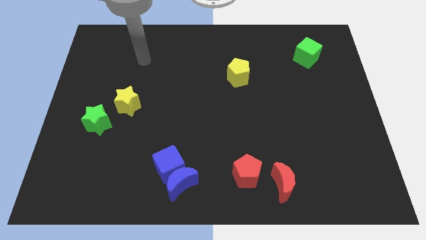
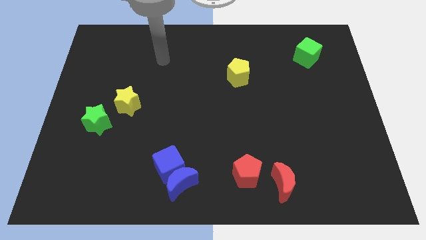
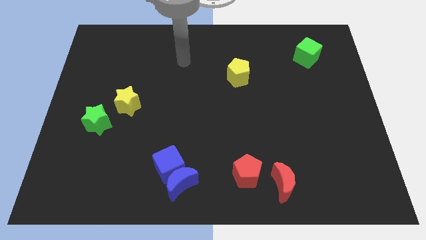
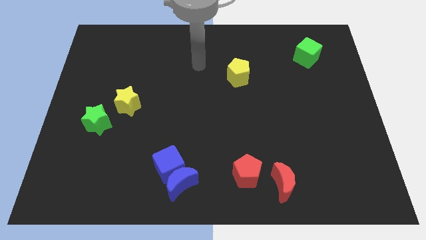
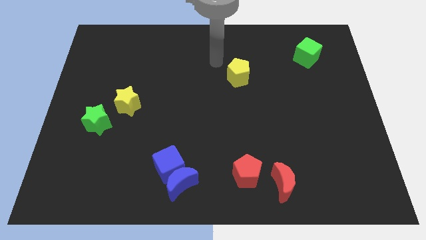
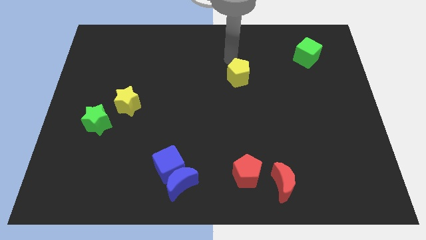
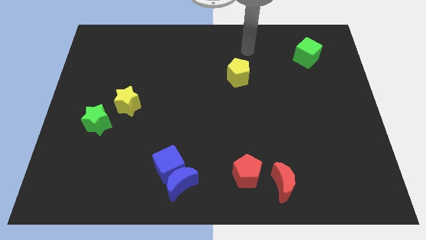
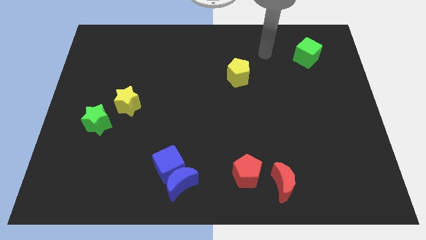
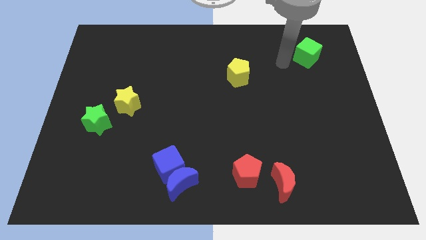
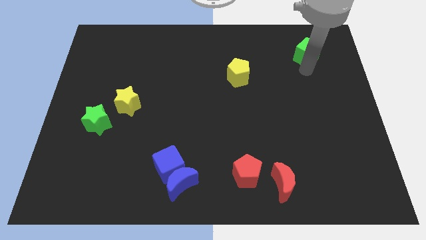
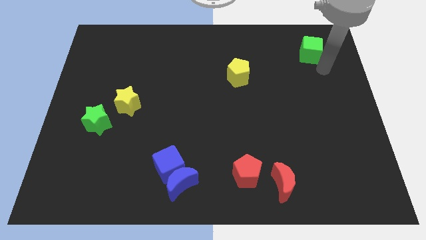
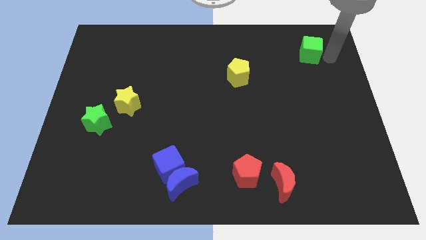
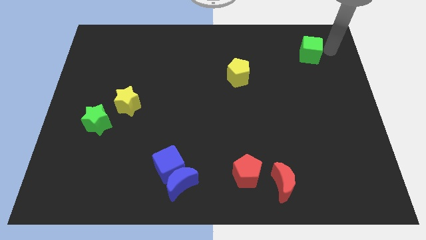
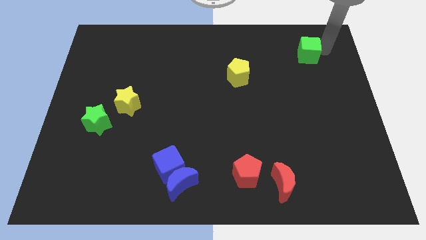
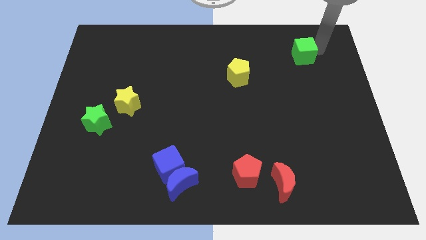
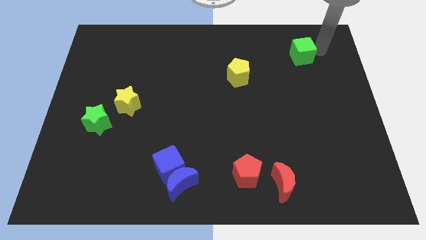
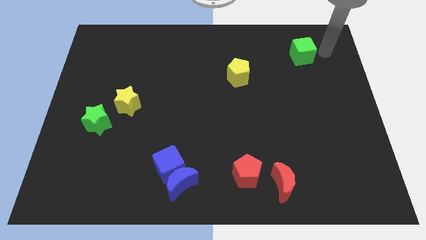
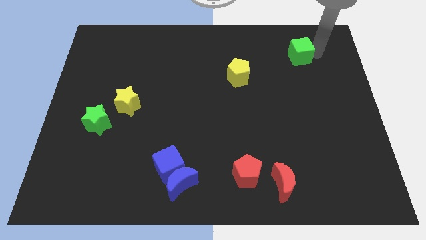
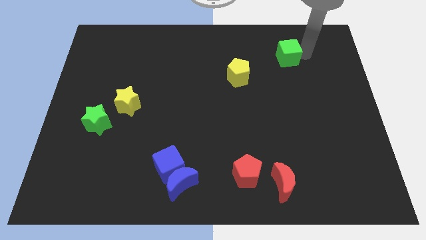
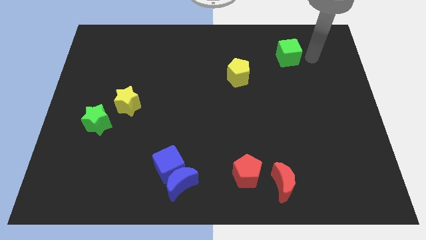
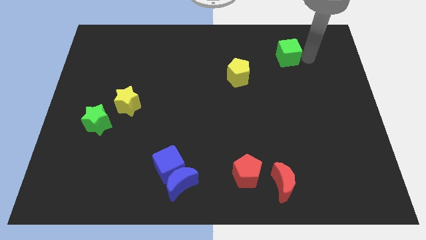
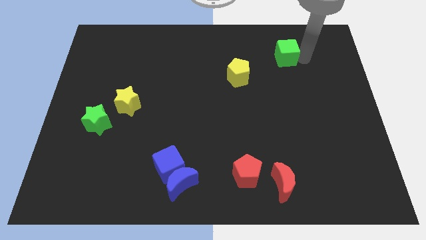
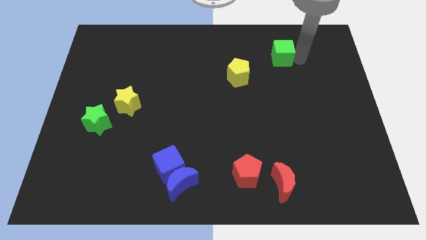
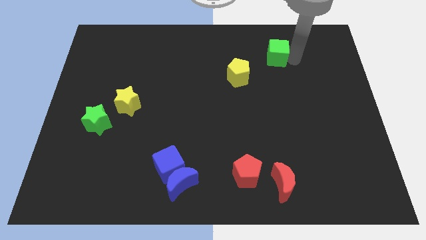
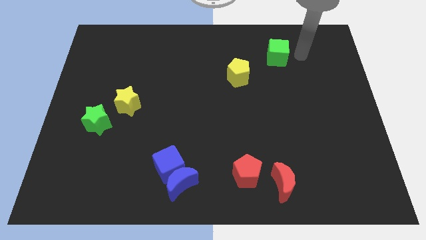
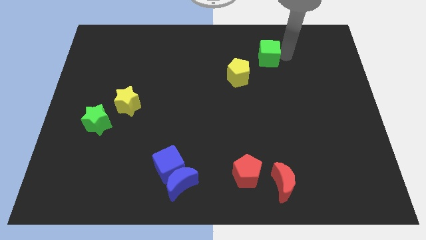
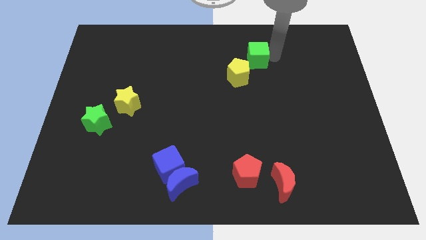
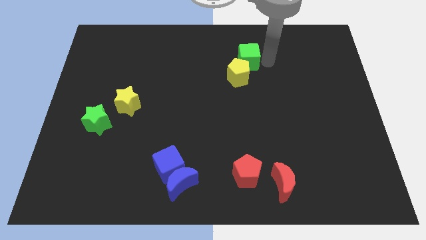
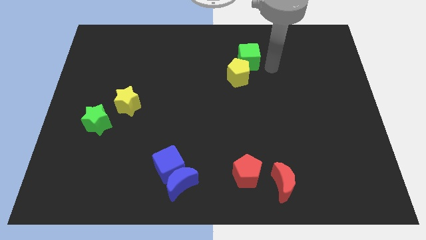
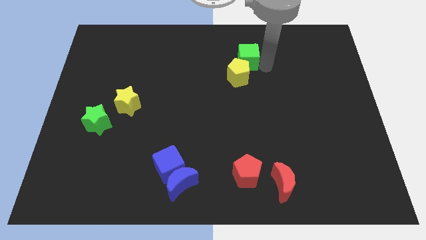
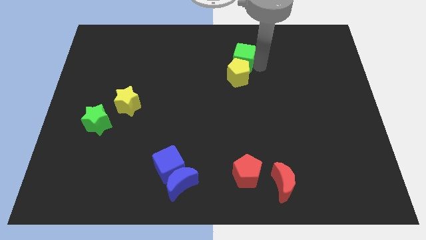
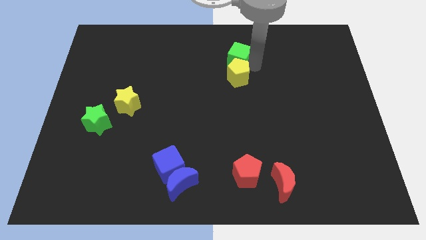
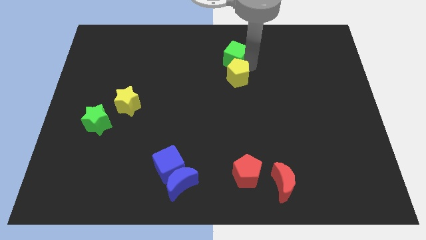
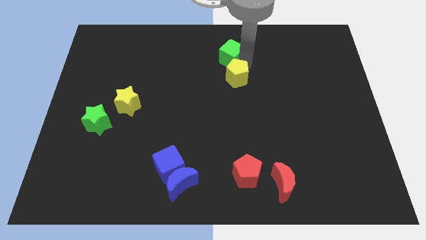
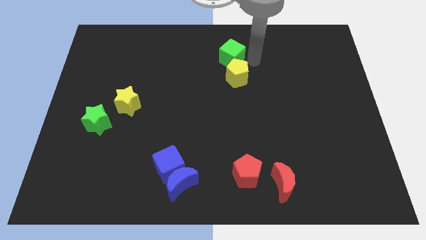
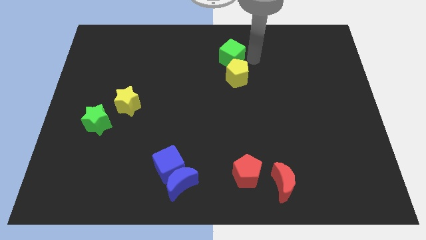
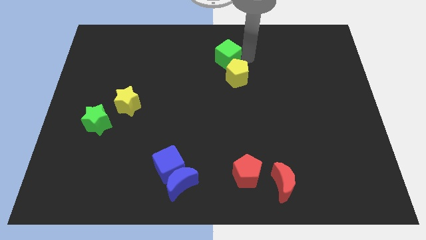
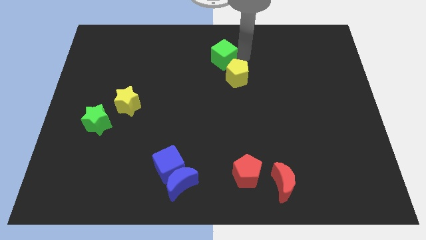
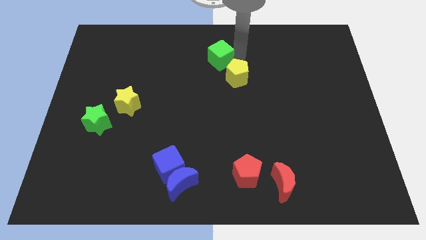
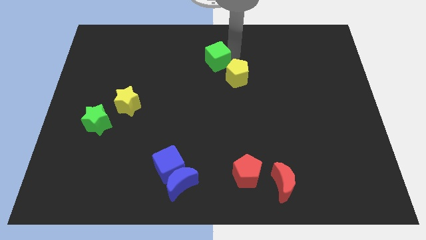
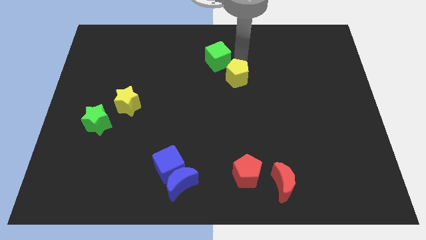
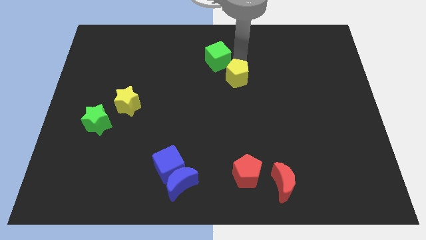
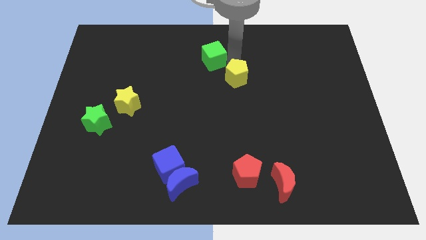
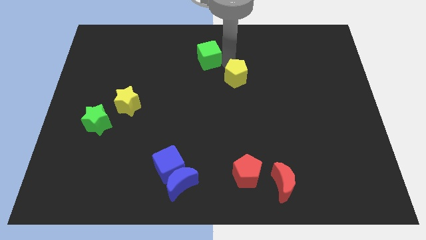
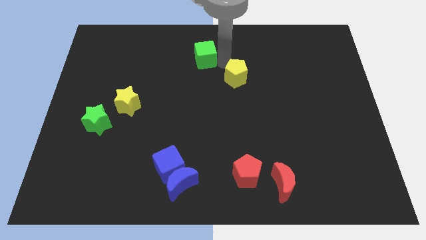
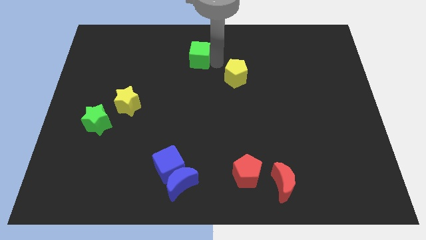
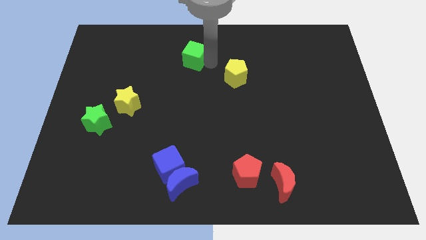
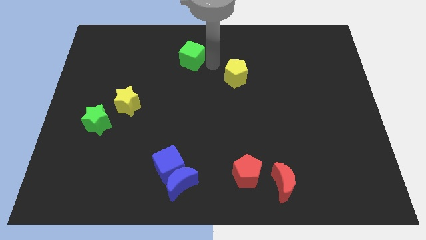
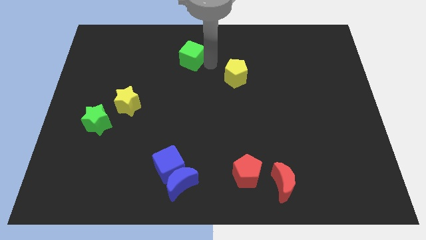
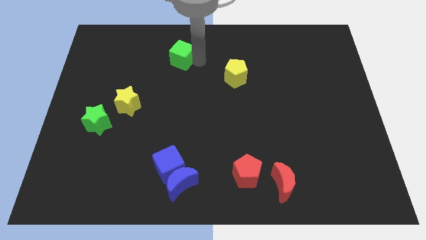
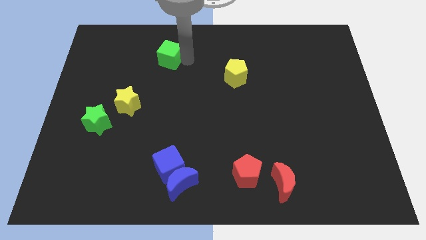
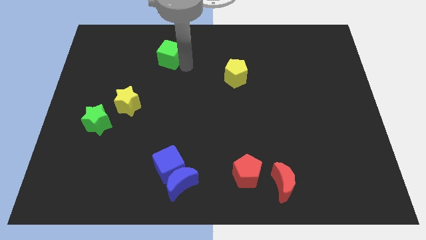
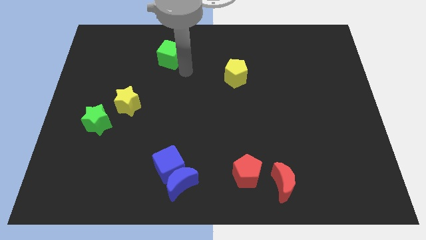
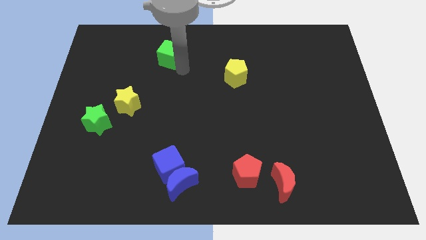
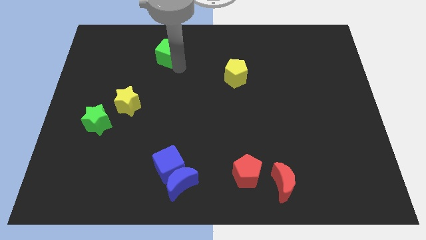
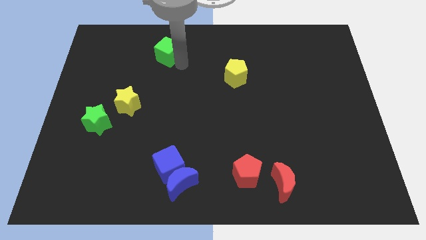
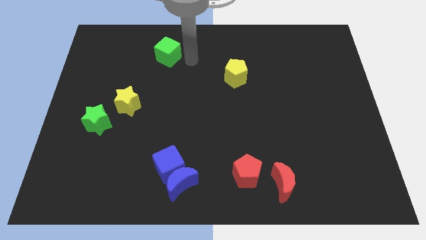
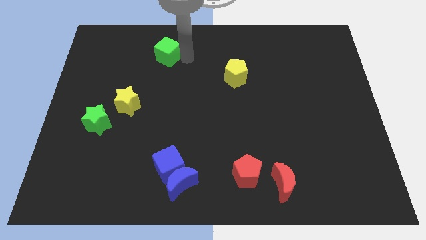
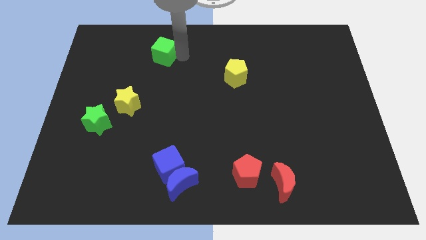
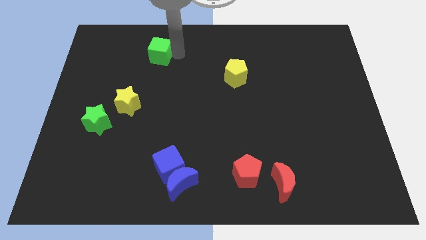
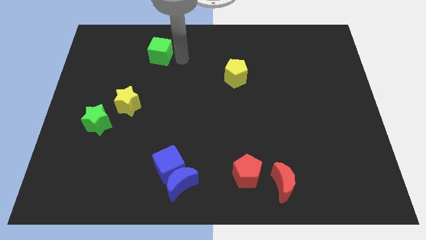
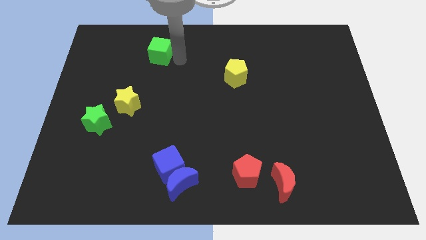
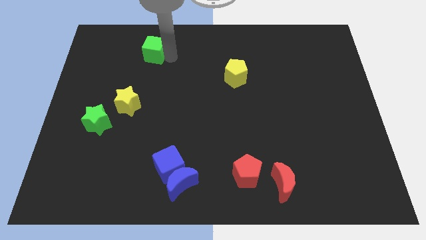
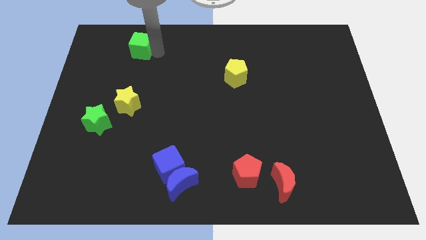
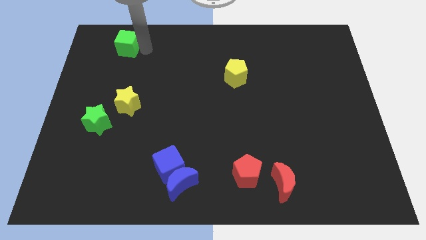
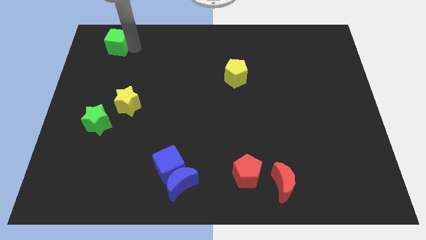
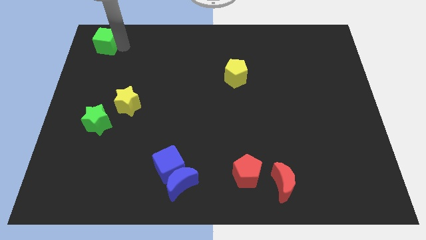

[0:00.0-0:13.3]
put the green cube to the top left corner
